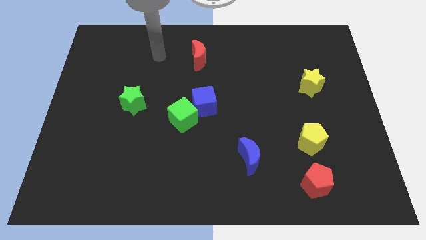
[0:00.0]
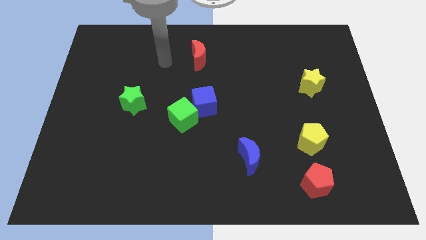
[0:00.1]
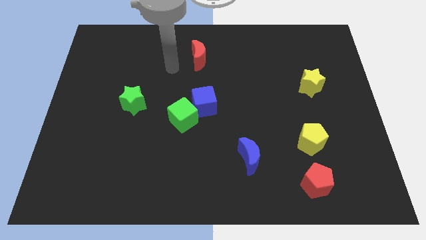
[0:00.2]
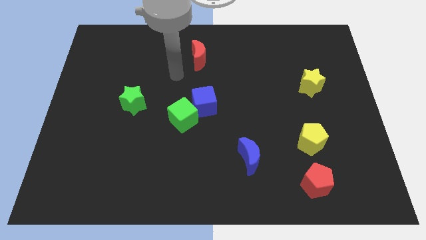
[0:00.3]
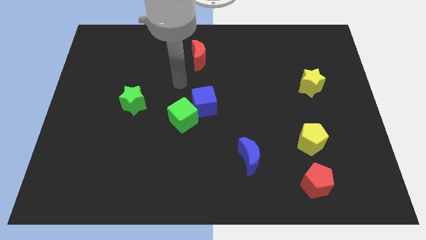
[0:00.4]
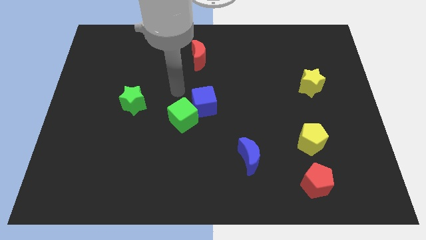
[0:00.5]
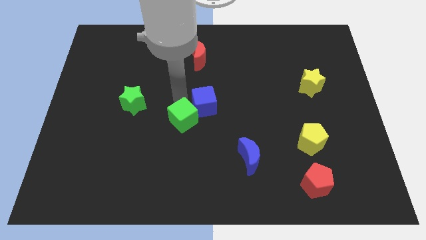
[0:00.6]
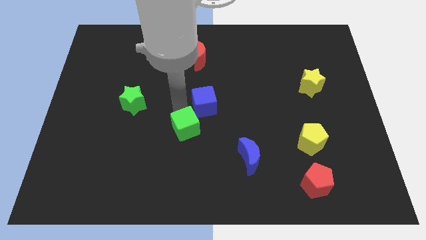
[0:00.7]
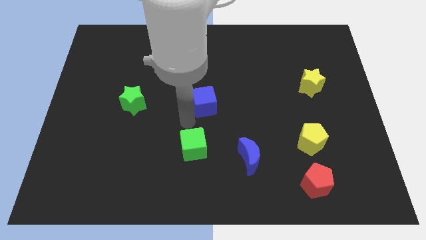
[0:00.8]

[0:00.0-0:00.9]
separate the blue cube from the green cube

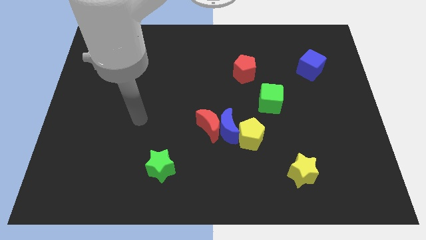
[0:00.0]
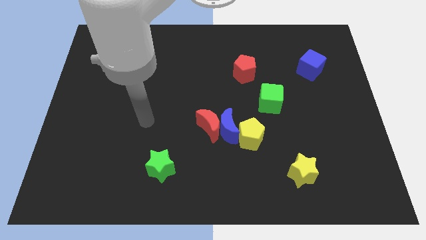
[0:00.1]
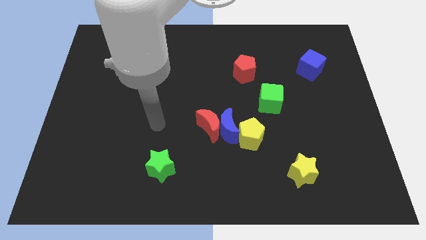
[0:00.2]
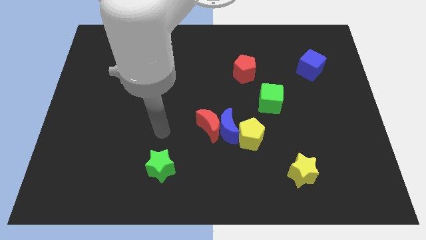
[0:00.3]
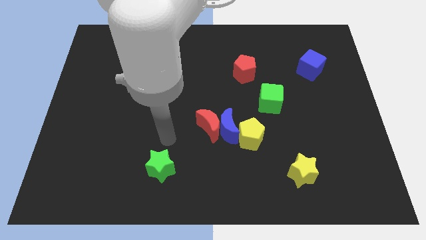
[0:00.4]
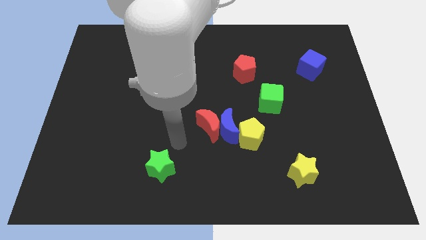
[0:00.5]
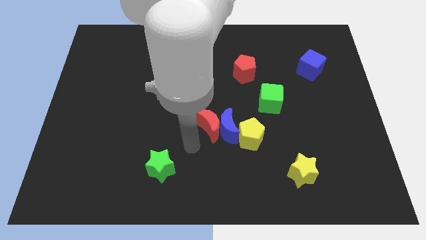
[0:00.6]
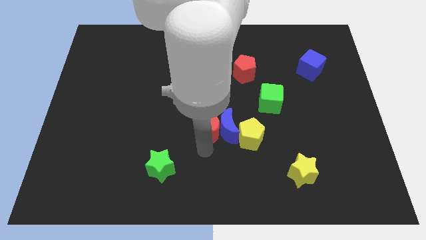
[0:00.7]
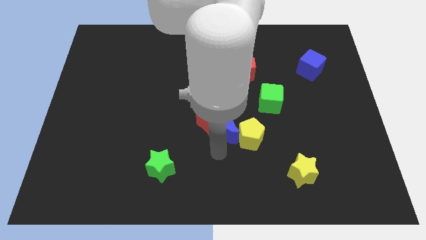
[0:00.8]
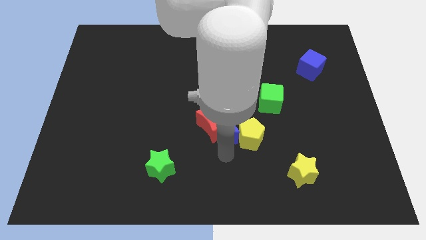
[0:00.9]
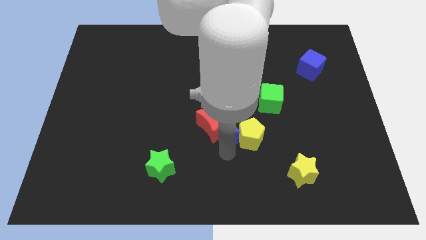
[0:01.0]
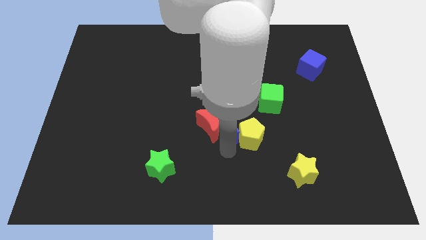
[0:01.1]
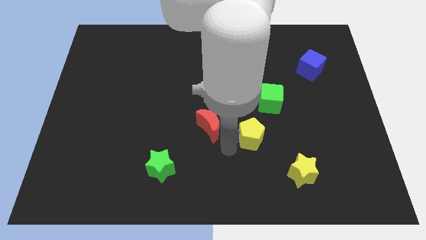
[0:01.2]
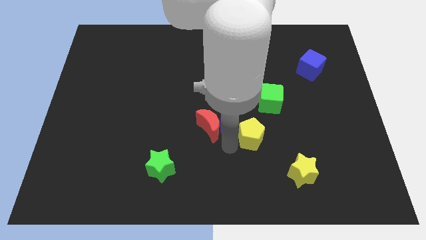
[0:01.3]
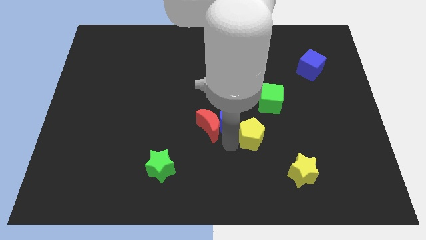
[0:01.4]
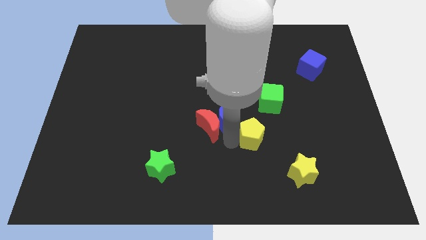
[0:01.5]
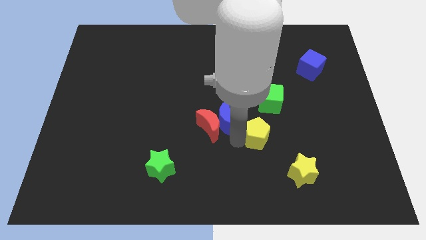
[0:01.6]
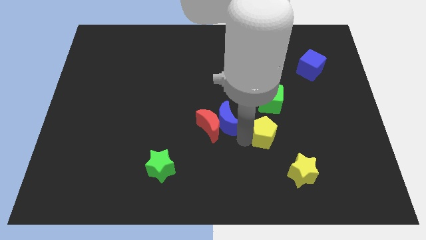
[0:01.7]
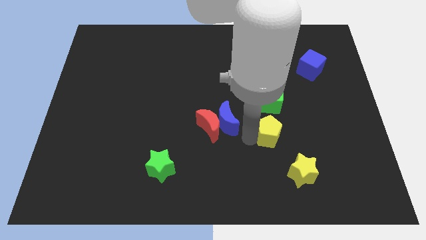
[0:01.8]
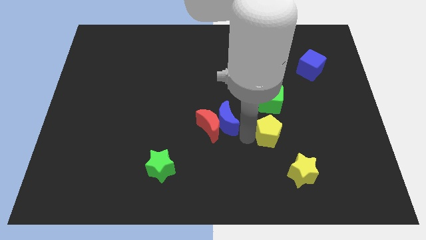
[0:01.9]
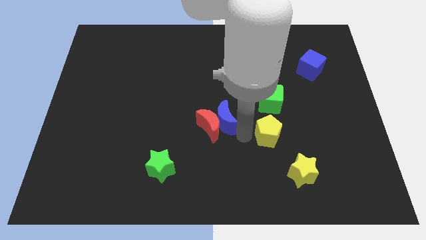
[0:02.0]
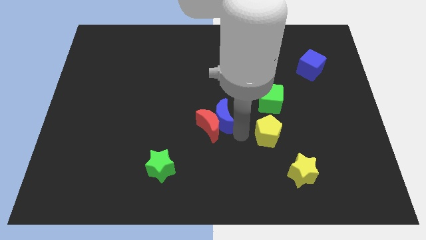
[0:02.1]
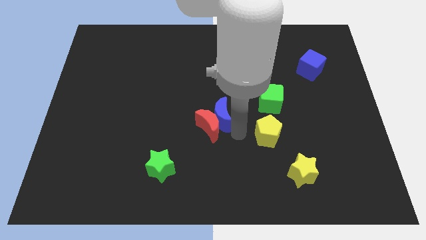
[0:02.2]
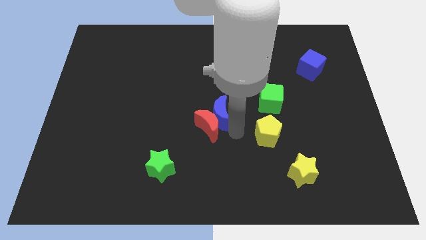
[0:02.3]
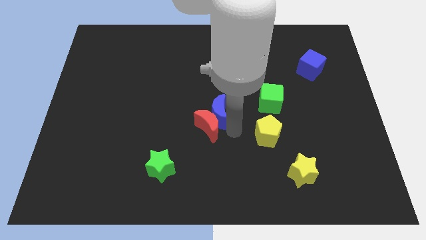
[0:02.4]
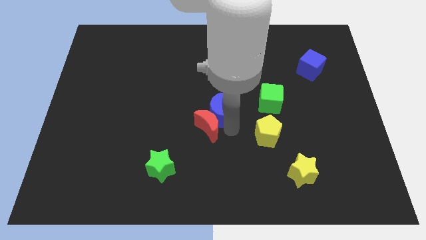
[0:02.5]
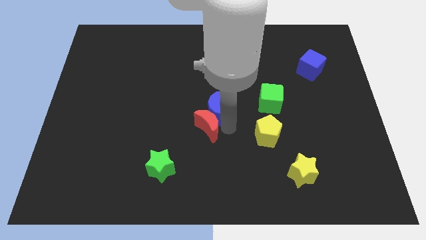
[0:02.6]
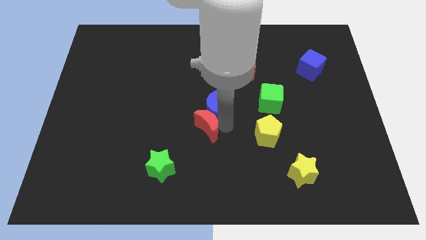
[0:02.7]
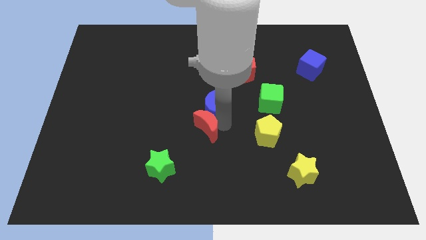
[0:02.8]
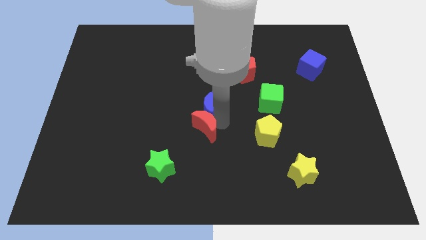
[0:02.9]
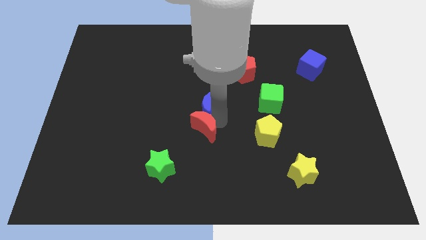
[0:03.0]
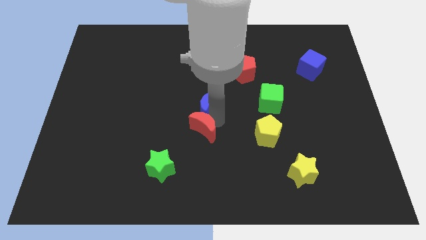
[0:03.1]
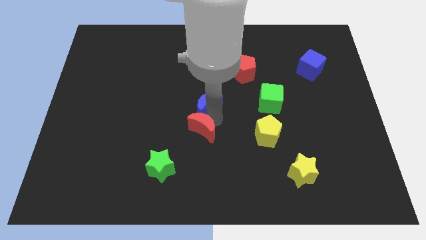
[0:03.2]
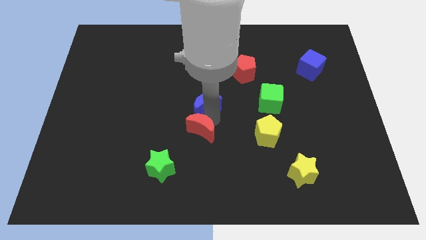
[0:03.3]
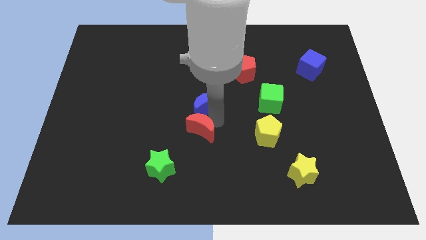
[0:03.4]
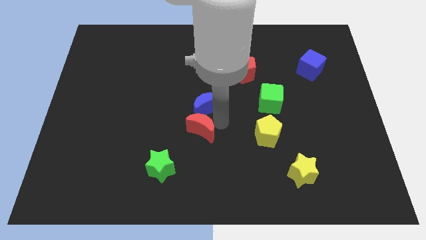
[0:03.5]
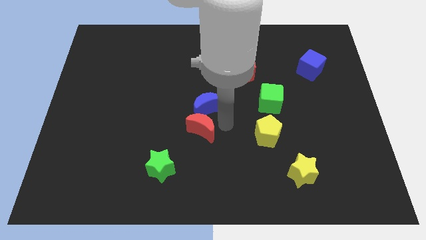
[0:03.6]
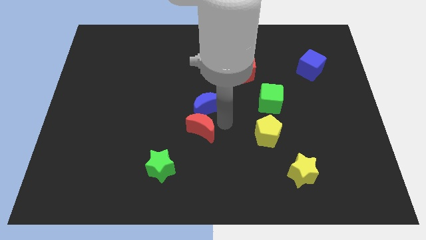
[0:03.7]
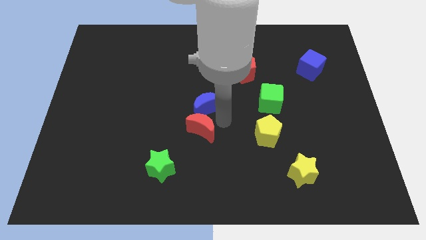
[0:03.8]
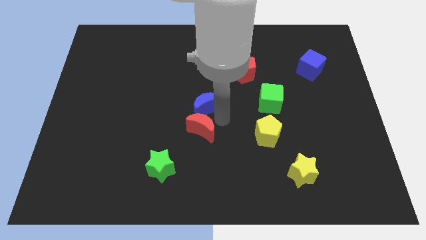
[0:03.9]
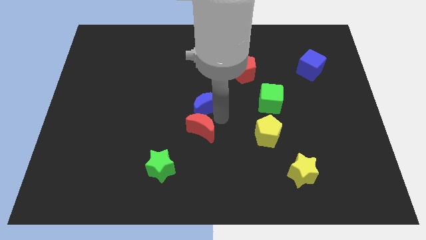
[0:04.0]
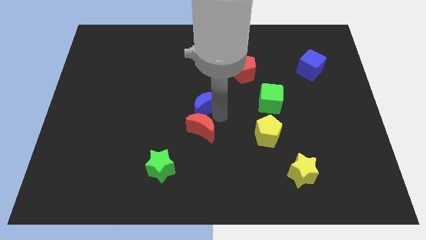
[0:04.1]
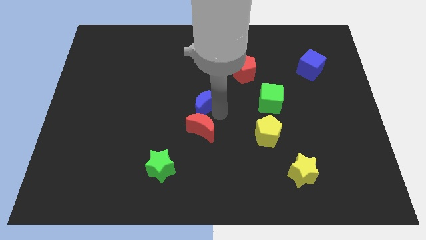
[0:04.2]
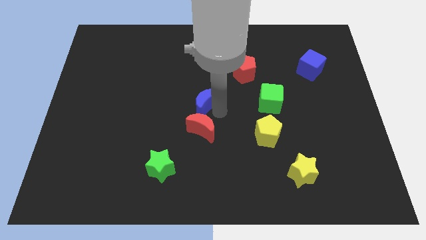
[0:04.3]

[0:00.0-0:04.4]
separate the blue moon from the red moon and yellow pentagon

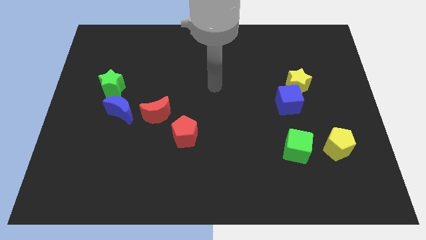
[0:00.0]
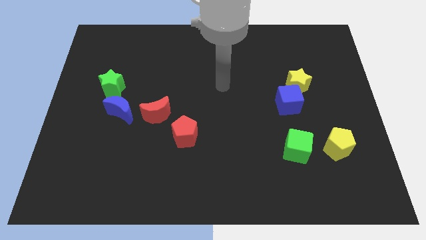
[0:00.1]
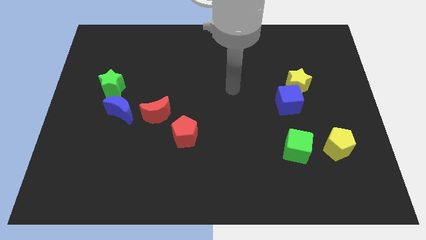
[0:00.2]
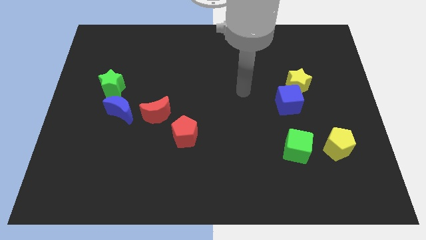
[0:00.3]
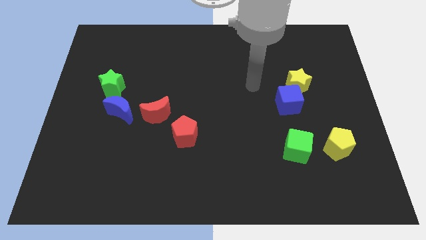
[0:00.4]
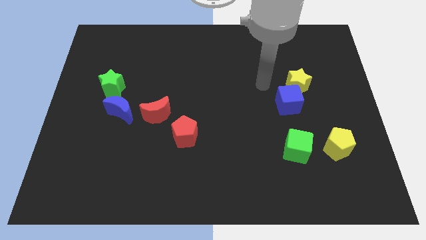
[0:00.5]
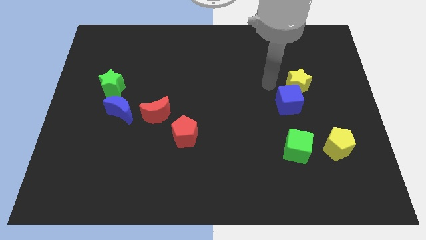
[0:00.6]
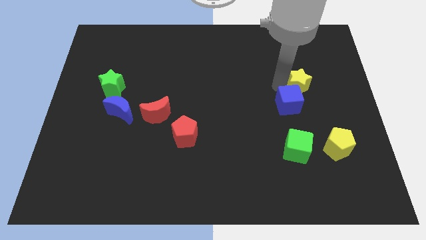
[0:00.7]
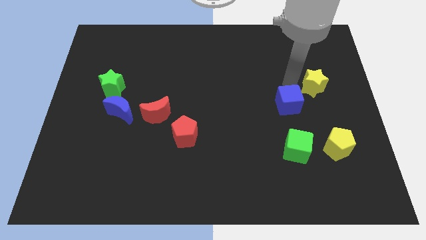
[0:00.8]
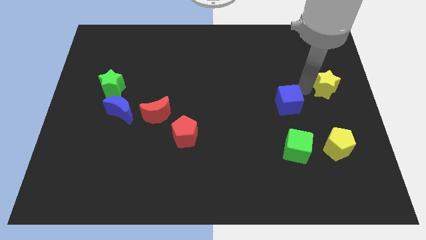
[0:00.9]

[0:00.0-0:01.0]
separate the blue cube from the yellow star

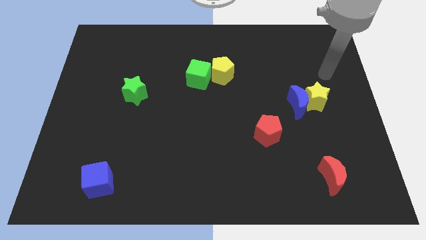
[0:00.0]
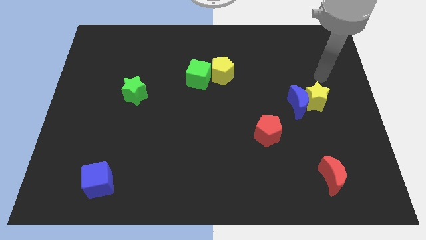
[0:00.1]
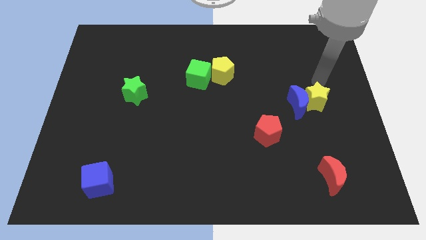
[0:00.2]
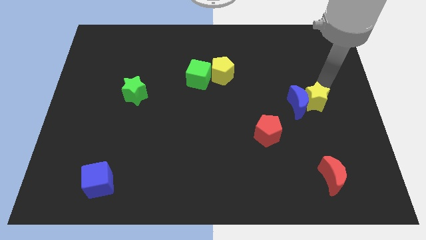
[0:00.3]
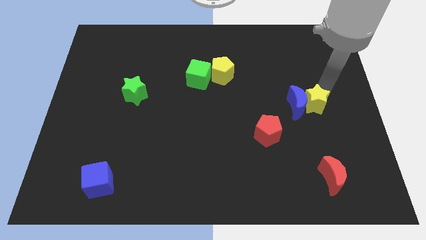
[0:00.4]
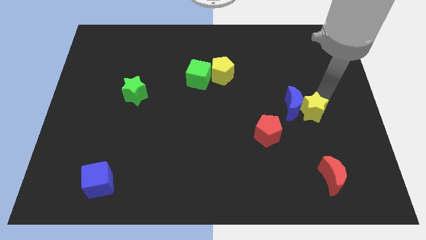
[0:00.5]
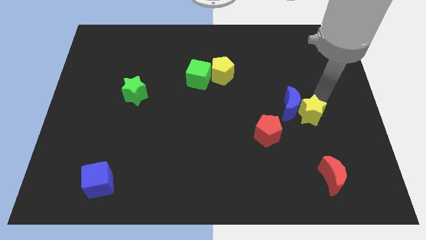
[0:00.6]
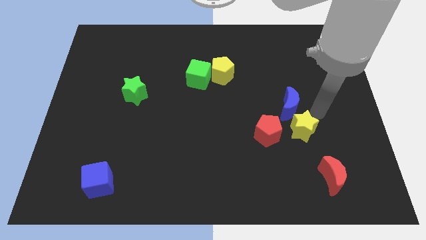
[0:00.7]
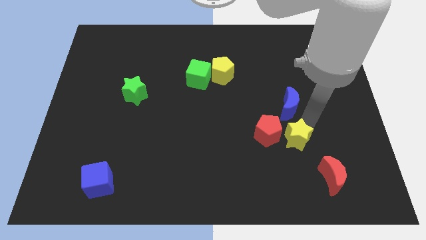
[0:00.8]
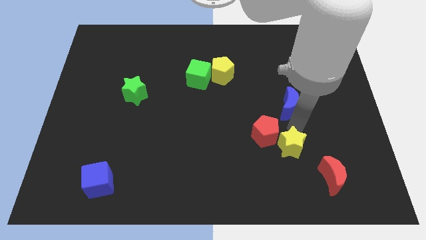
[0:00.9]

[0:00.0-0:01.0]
pull the blue moon apart from the yellow star

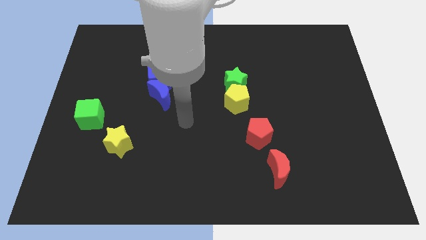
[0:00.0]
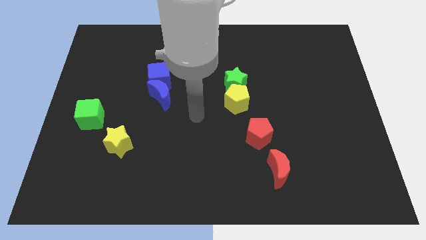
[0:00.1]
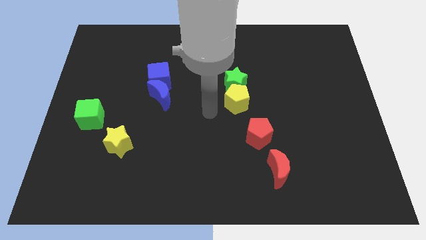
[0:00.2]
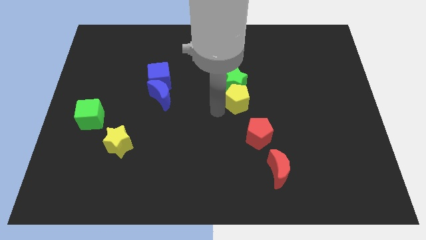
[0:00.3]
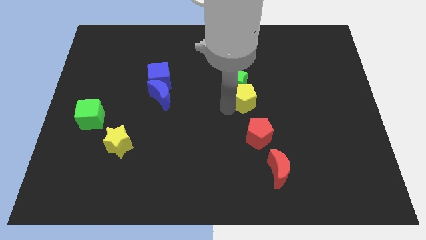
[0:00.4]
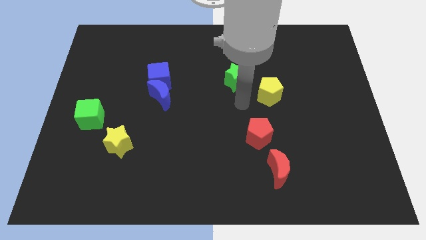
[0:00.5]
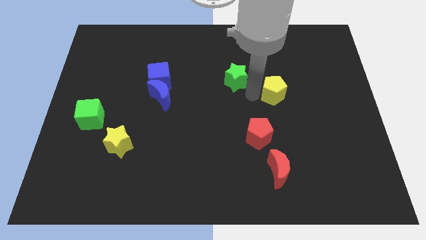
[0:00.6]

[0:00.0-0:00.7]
separate the green star from the yellow pentagon

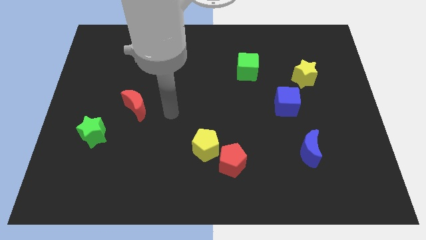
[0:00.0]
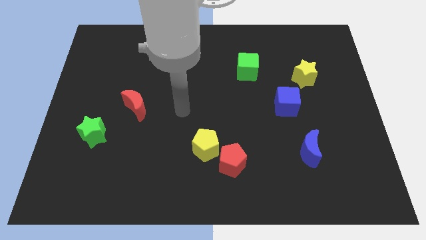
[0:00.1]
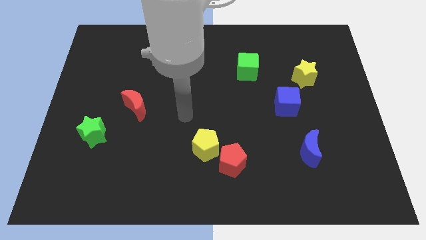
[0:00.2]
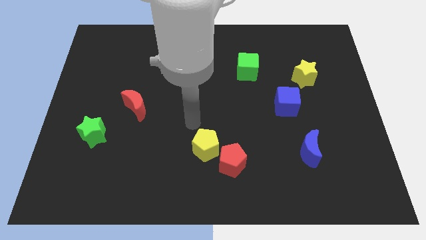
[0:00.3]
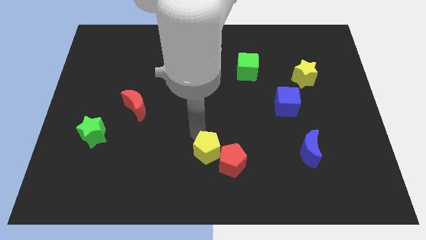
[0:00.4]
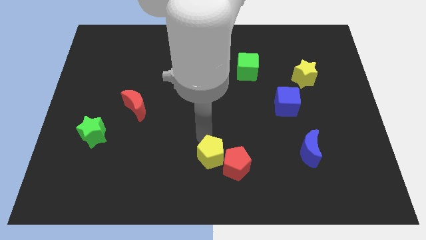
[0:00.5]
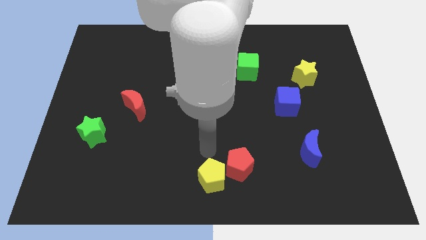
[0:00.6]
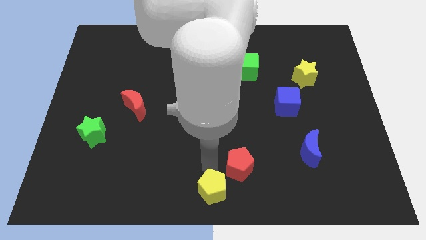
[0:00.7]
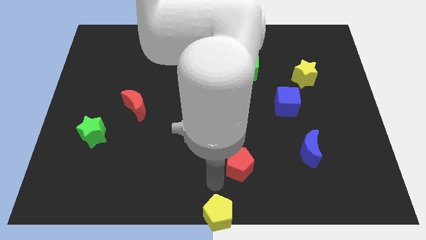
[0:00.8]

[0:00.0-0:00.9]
separate the red pentagon from the yellow pentagon

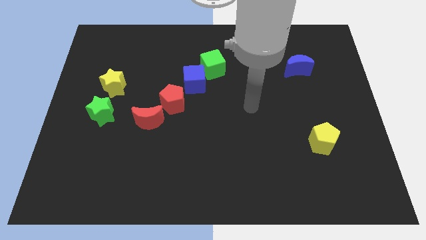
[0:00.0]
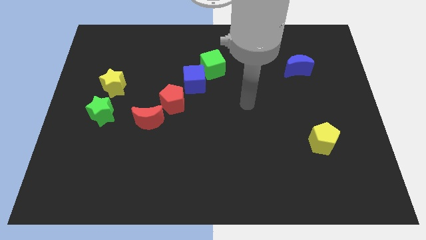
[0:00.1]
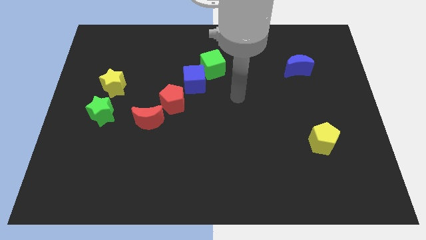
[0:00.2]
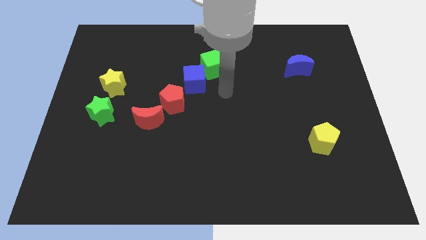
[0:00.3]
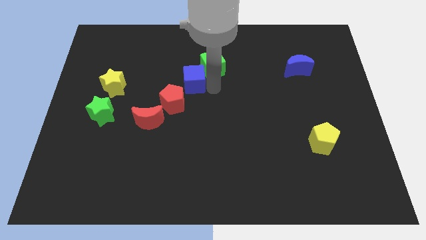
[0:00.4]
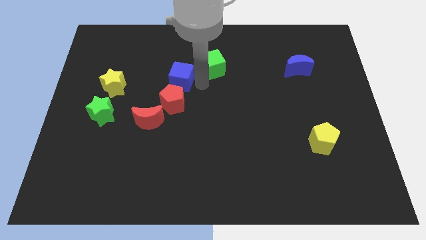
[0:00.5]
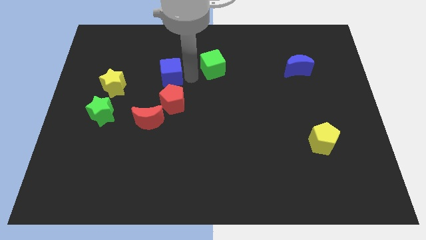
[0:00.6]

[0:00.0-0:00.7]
move the green cube away from the blue cube
